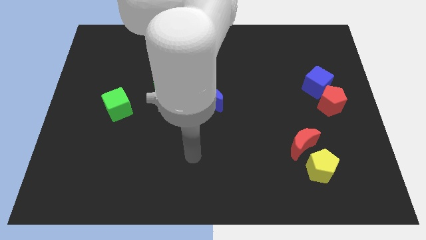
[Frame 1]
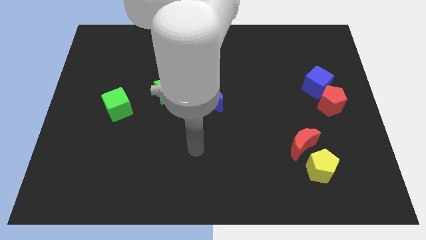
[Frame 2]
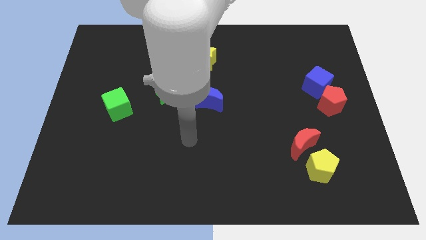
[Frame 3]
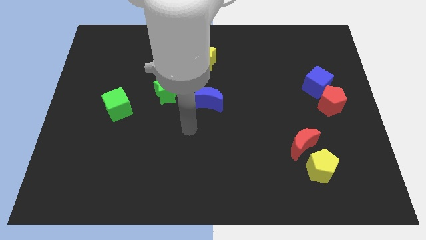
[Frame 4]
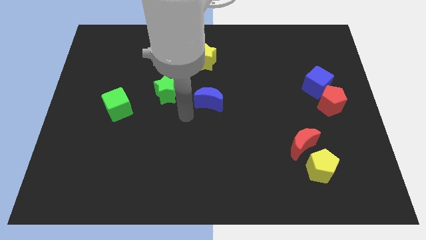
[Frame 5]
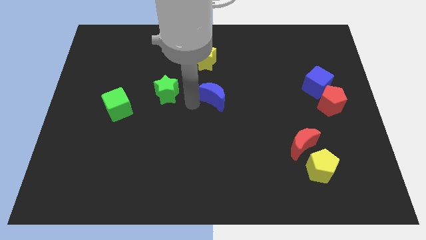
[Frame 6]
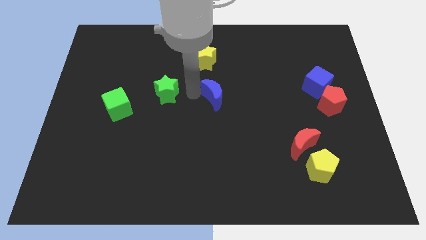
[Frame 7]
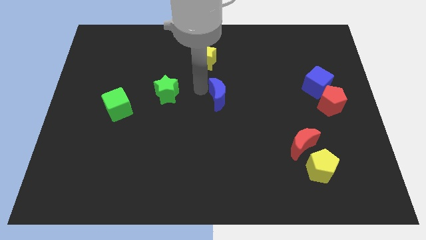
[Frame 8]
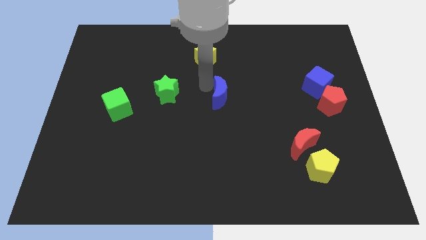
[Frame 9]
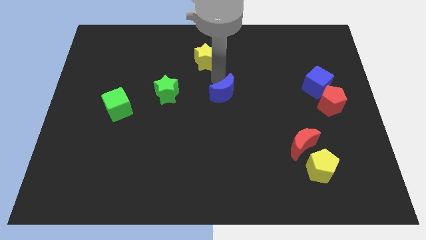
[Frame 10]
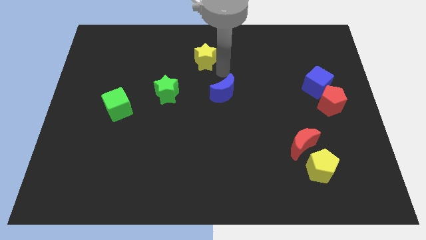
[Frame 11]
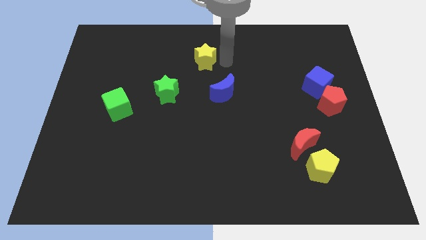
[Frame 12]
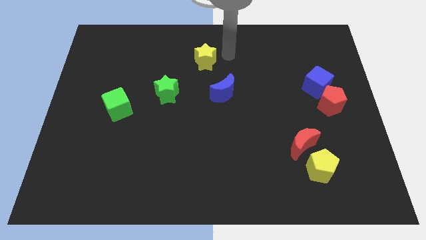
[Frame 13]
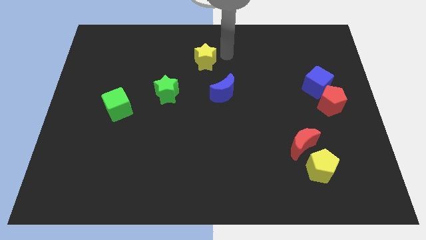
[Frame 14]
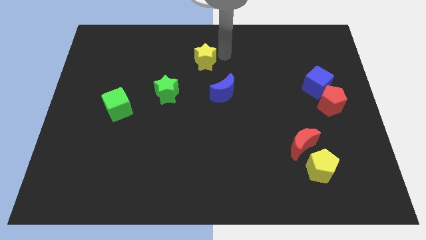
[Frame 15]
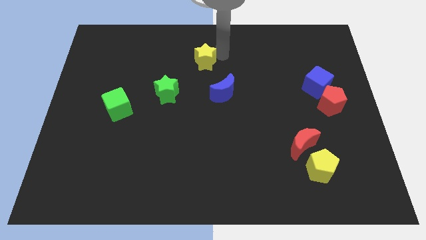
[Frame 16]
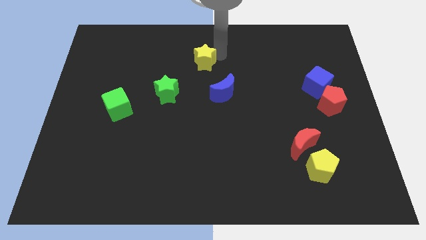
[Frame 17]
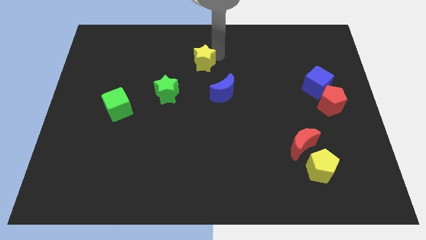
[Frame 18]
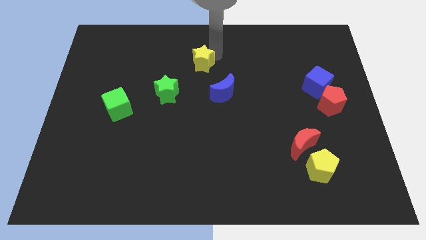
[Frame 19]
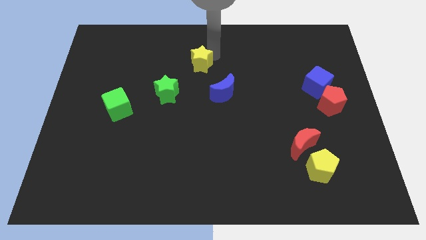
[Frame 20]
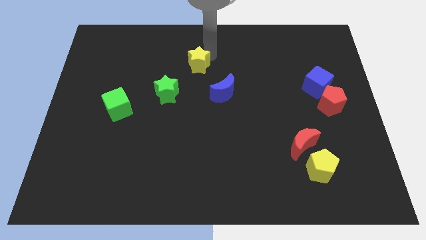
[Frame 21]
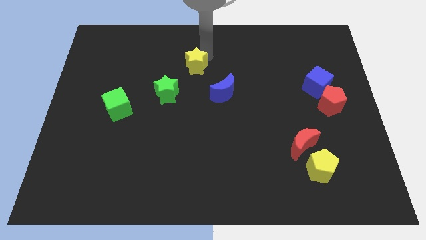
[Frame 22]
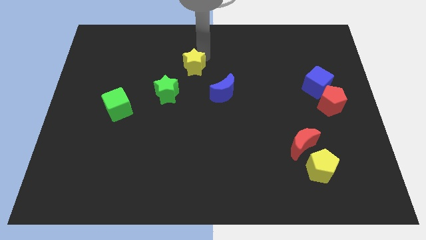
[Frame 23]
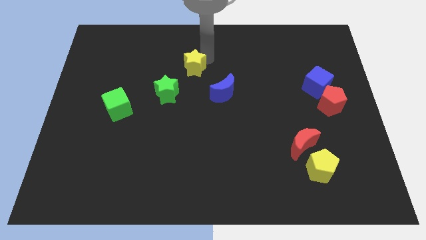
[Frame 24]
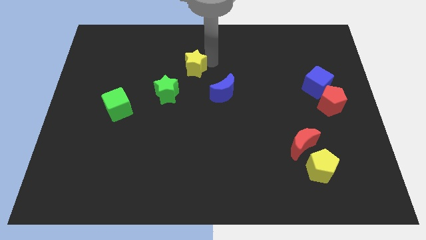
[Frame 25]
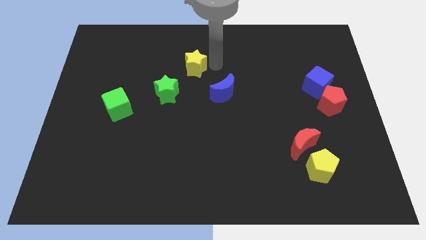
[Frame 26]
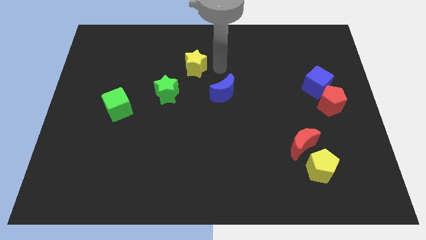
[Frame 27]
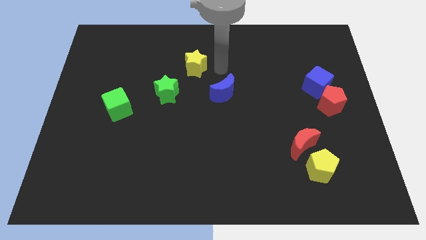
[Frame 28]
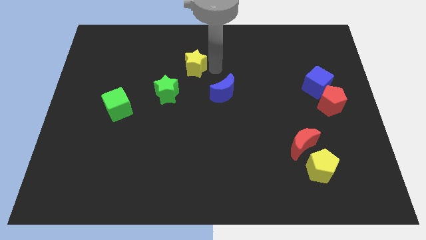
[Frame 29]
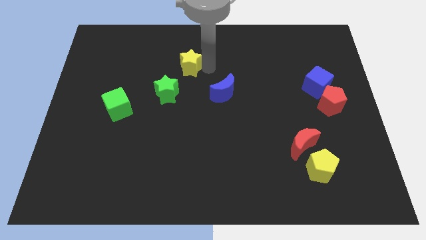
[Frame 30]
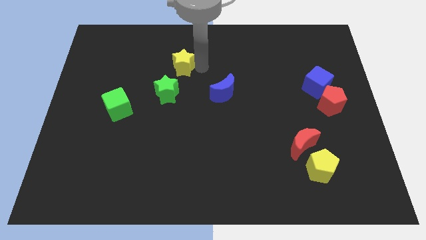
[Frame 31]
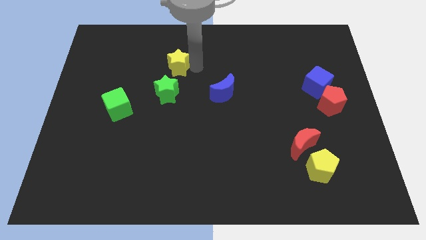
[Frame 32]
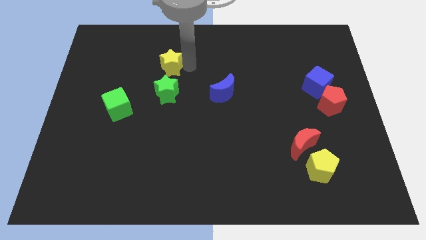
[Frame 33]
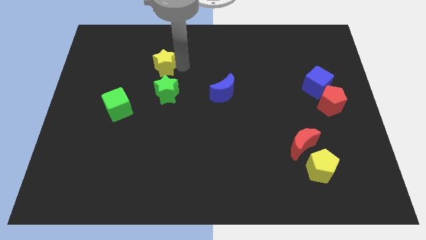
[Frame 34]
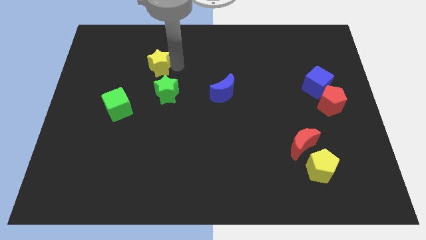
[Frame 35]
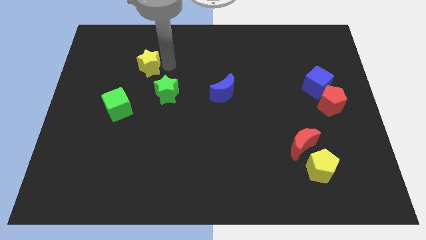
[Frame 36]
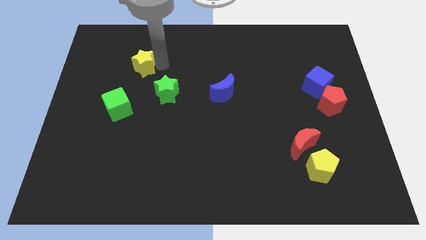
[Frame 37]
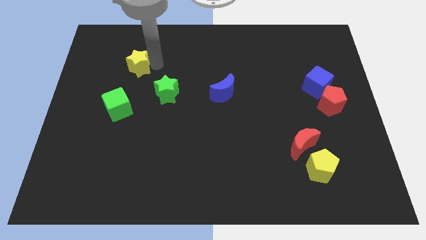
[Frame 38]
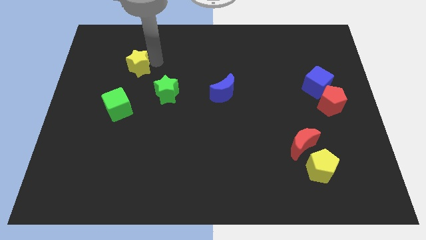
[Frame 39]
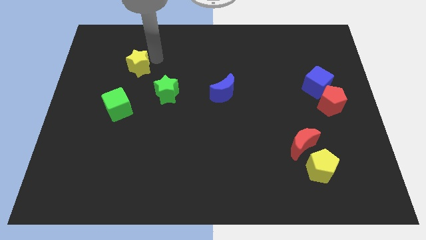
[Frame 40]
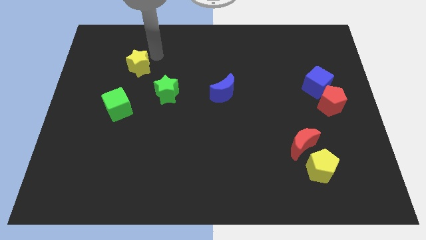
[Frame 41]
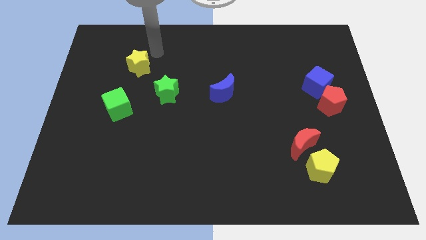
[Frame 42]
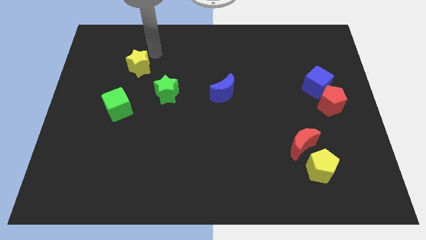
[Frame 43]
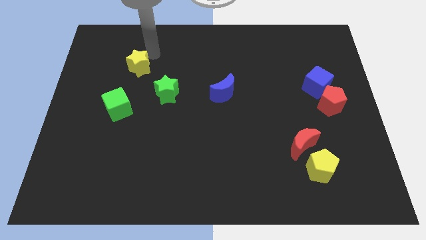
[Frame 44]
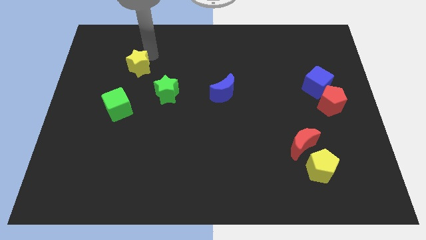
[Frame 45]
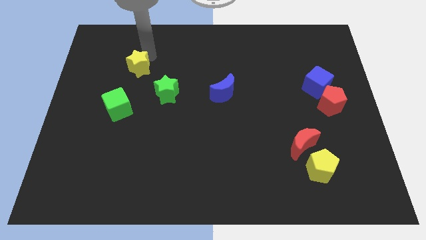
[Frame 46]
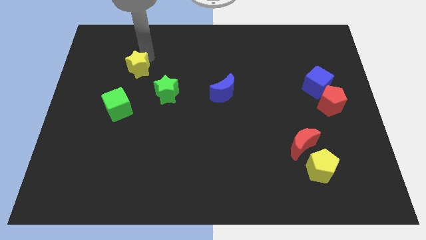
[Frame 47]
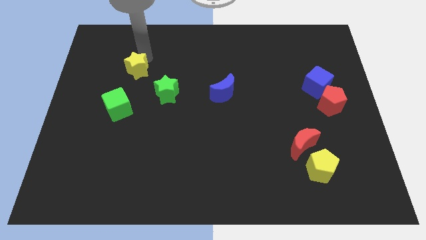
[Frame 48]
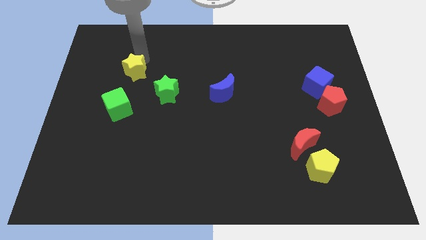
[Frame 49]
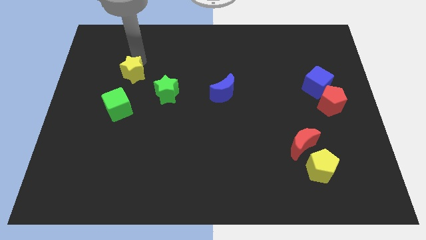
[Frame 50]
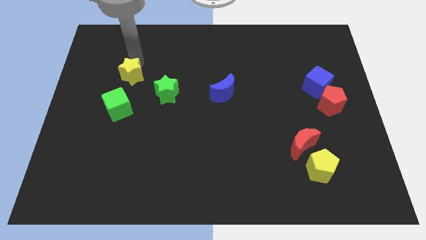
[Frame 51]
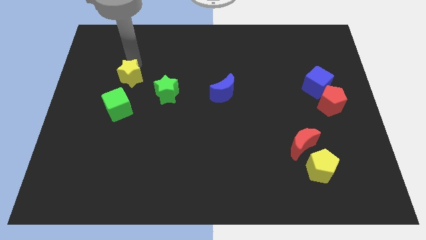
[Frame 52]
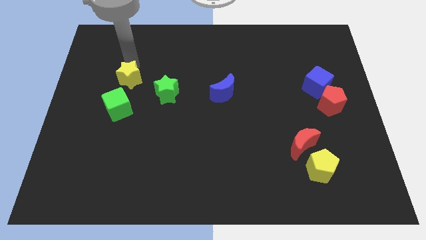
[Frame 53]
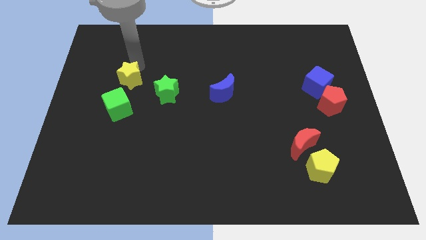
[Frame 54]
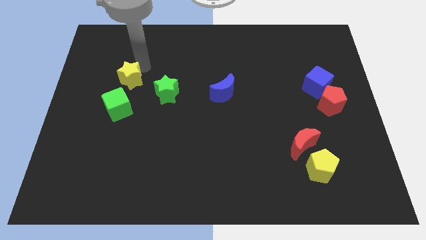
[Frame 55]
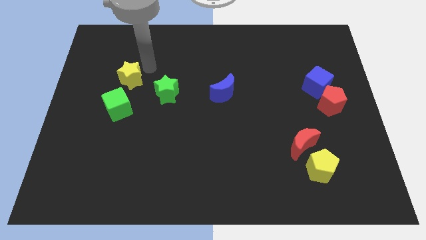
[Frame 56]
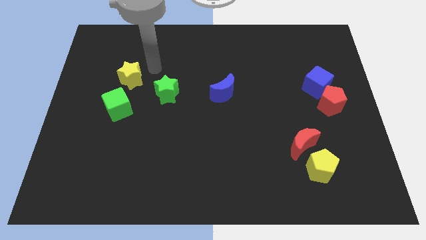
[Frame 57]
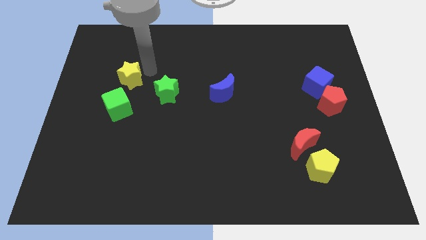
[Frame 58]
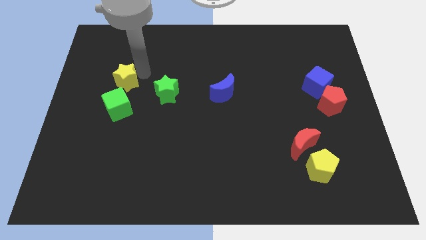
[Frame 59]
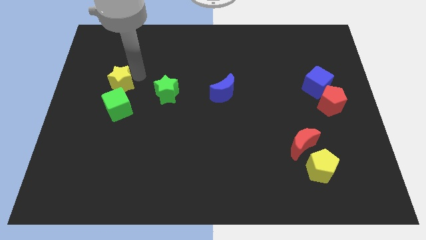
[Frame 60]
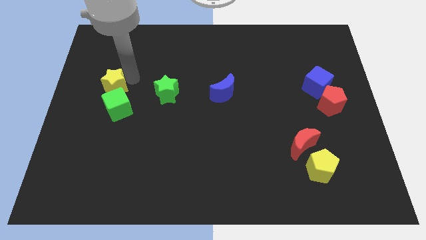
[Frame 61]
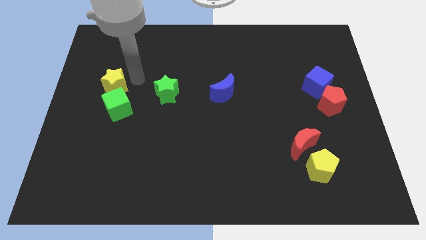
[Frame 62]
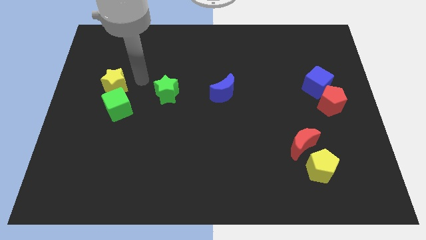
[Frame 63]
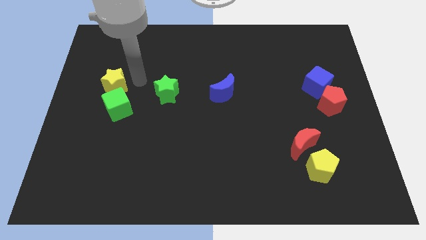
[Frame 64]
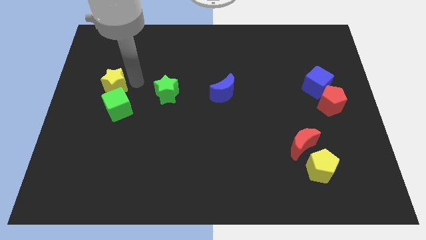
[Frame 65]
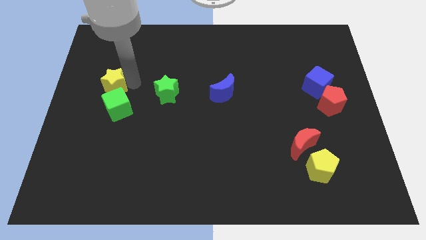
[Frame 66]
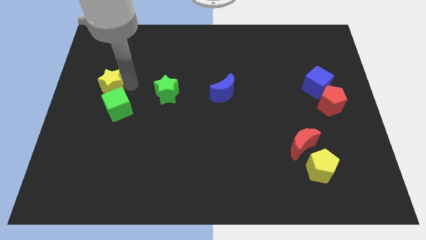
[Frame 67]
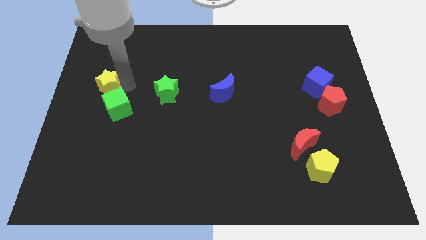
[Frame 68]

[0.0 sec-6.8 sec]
put the yellow star to the center left

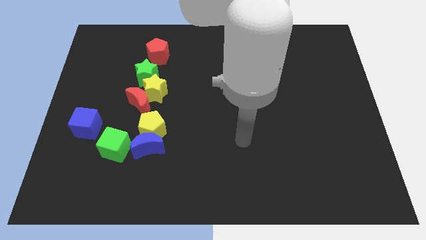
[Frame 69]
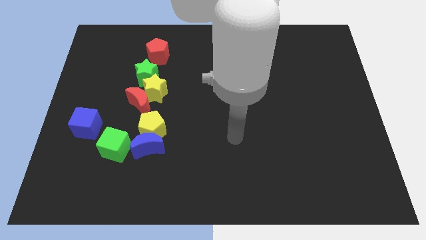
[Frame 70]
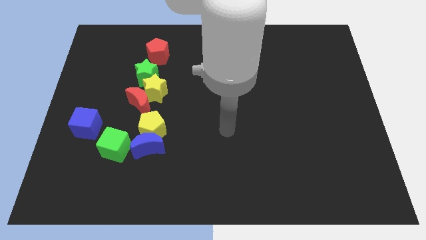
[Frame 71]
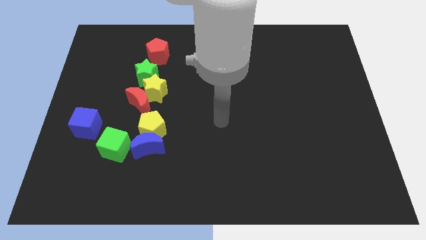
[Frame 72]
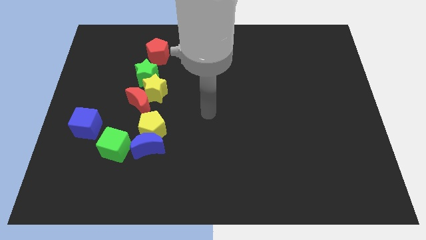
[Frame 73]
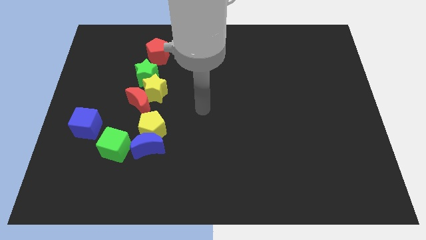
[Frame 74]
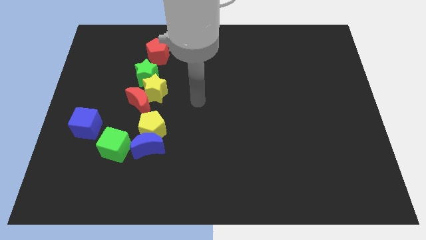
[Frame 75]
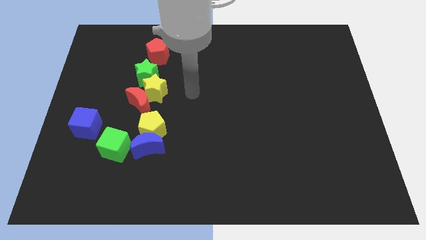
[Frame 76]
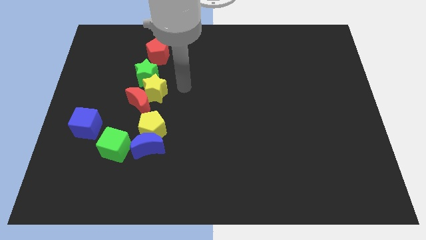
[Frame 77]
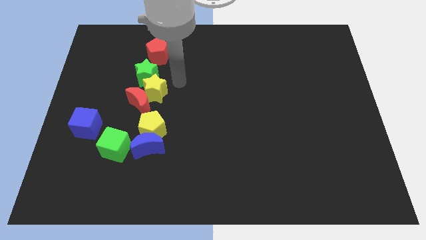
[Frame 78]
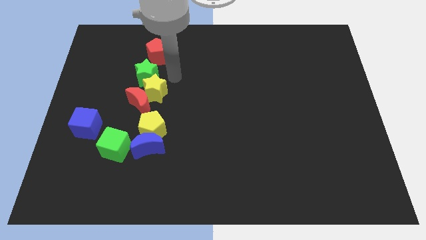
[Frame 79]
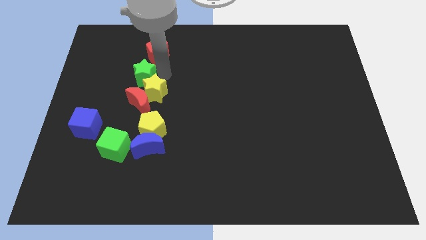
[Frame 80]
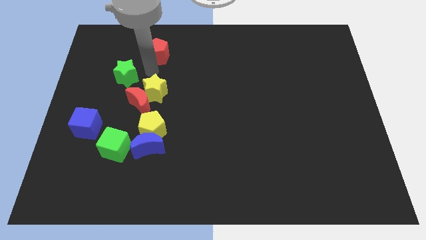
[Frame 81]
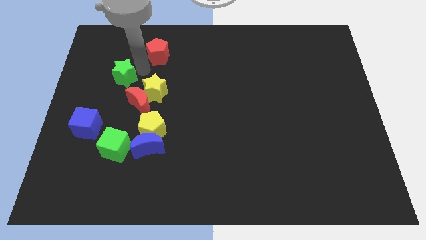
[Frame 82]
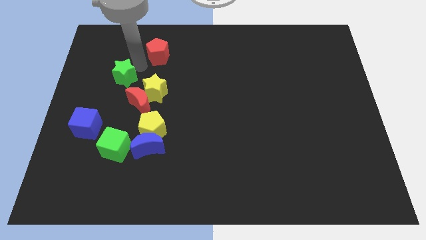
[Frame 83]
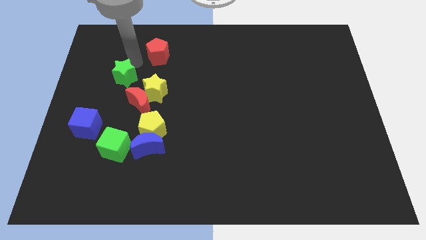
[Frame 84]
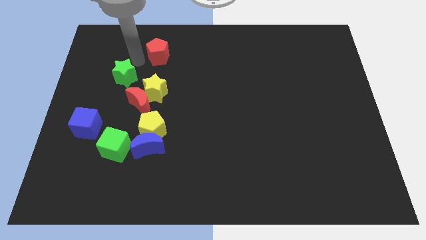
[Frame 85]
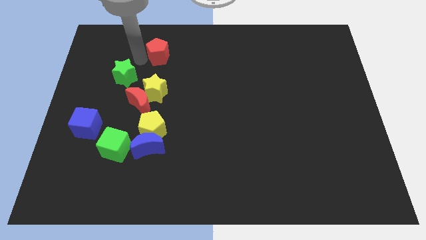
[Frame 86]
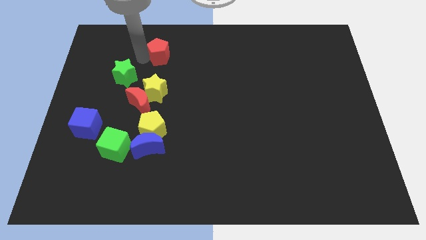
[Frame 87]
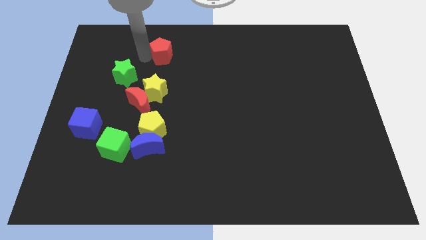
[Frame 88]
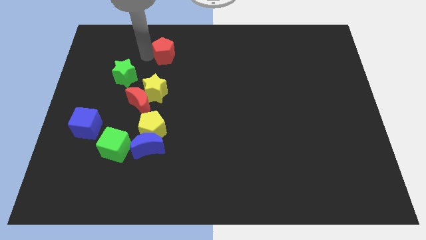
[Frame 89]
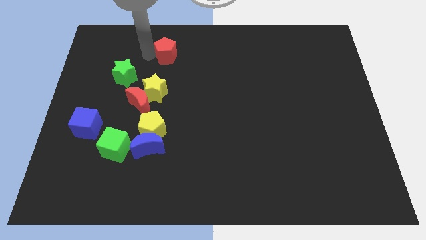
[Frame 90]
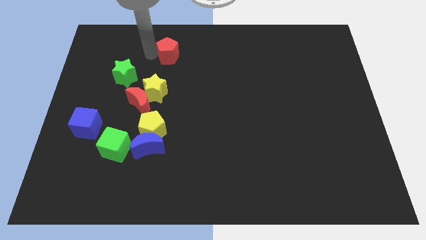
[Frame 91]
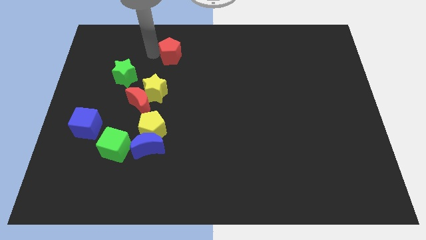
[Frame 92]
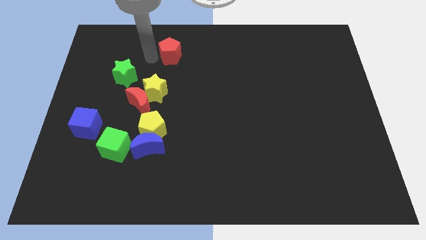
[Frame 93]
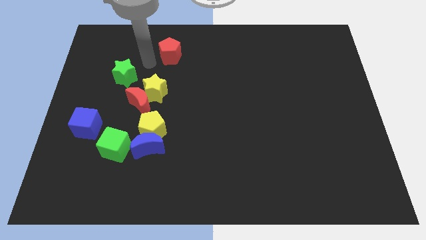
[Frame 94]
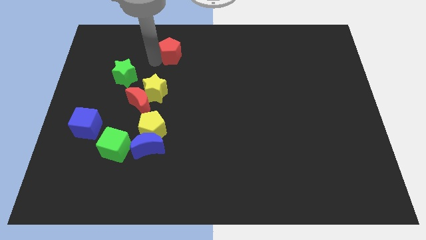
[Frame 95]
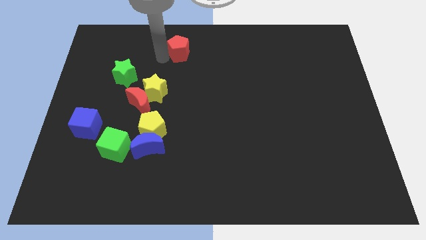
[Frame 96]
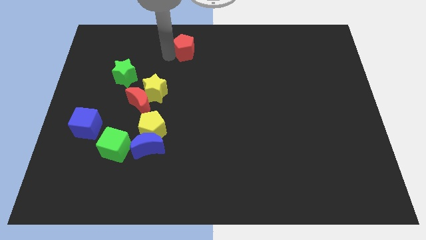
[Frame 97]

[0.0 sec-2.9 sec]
push the red pentagon to the towards your base
